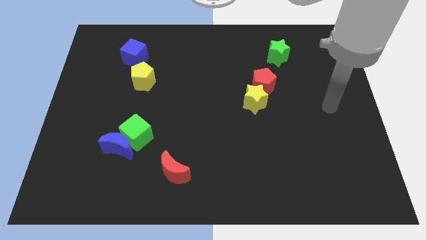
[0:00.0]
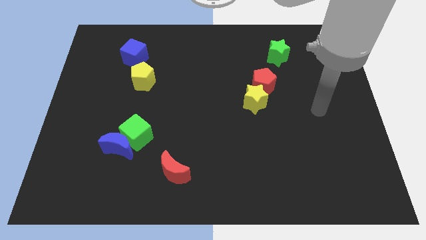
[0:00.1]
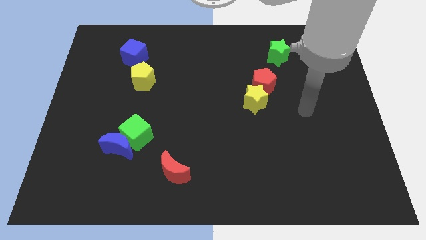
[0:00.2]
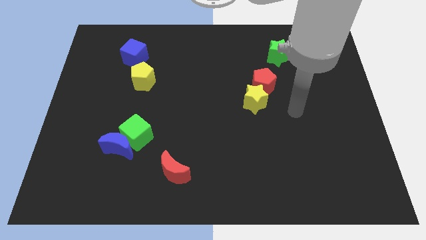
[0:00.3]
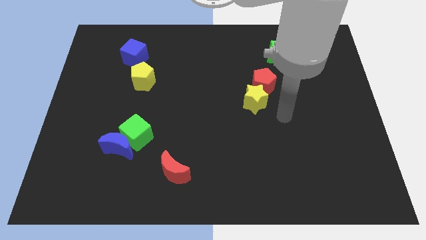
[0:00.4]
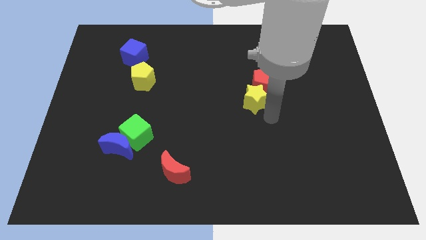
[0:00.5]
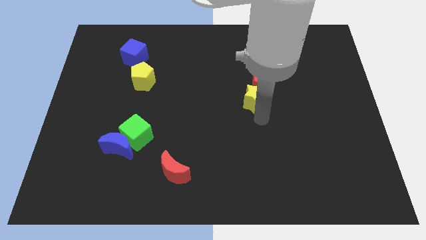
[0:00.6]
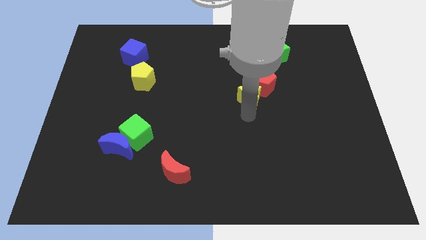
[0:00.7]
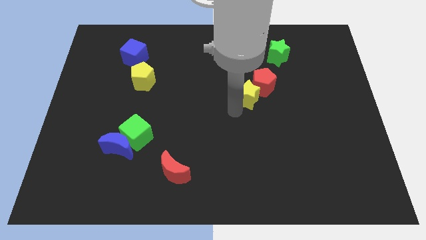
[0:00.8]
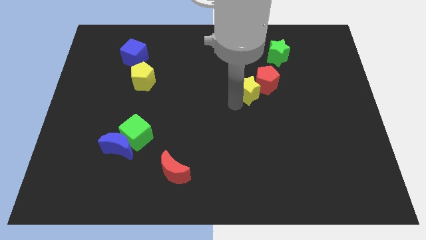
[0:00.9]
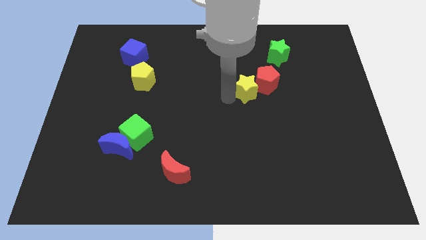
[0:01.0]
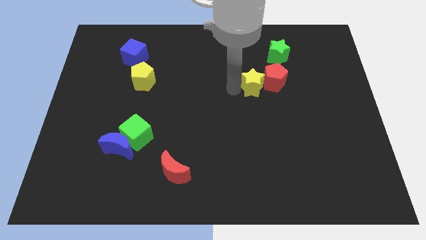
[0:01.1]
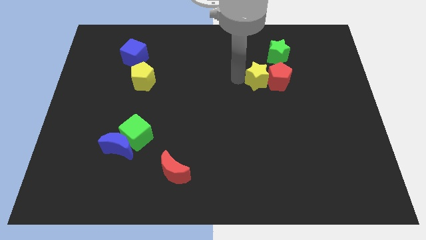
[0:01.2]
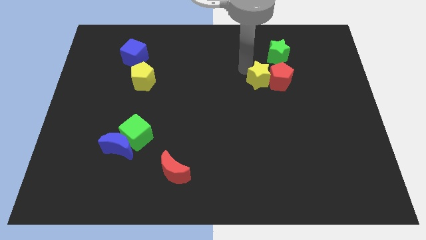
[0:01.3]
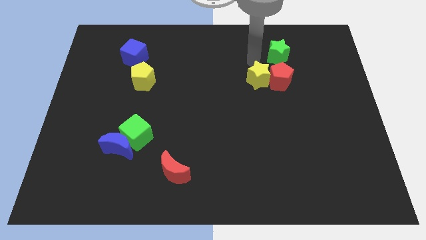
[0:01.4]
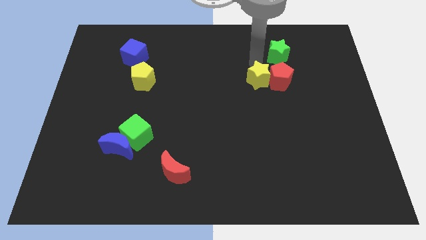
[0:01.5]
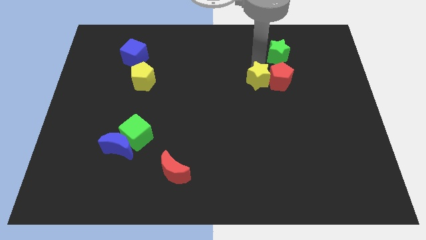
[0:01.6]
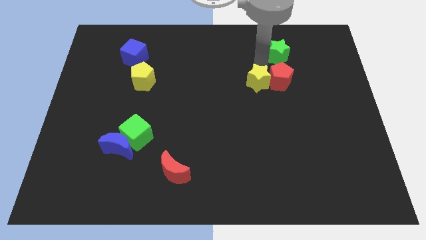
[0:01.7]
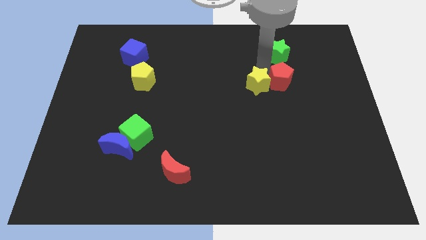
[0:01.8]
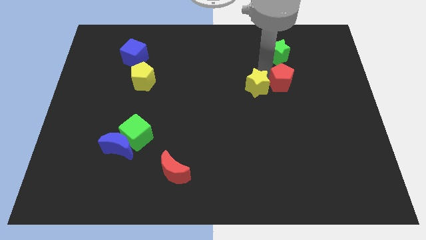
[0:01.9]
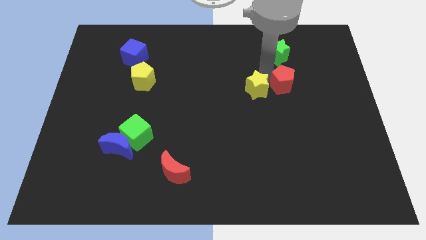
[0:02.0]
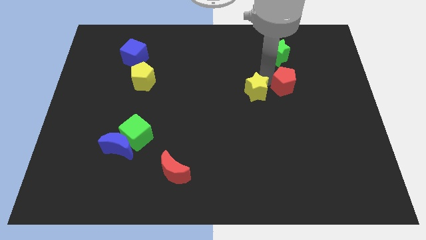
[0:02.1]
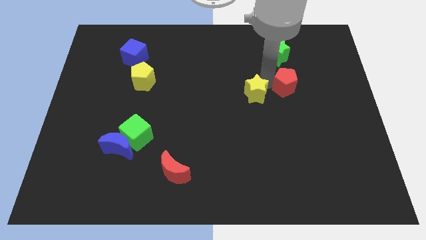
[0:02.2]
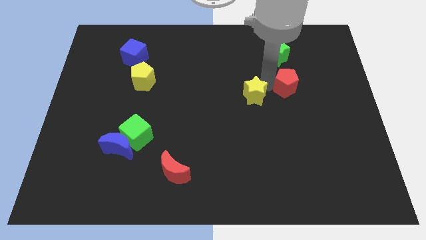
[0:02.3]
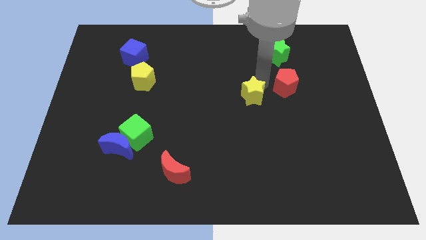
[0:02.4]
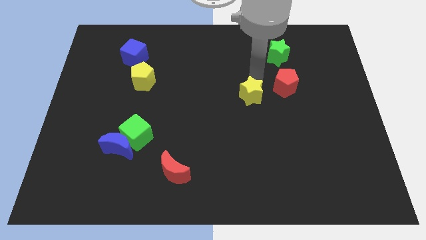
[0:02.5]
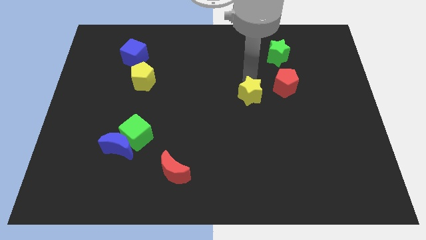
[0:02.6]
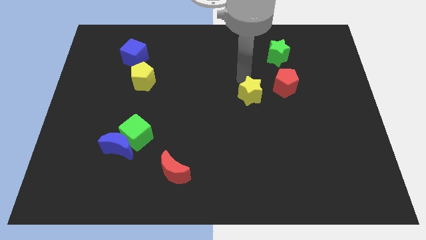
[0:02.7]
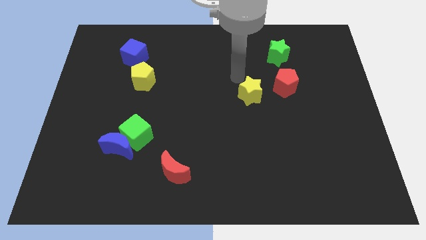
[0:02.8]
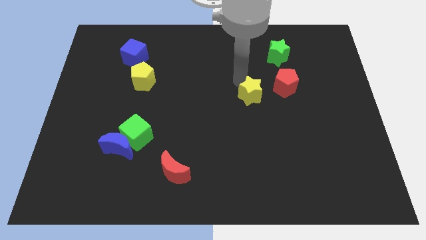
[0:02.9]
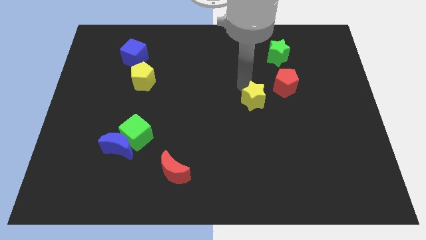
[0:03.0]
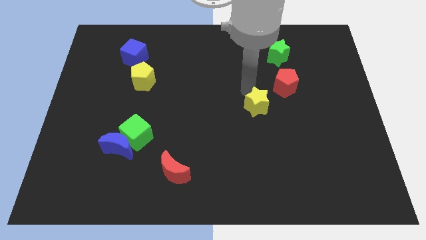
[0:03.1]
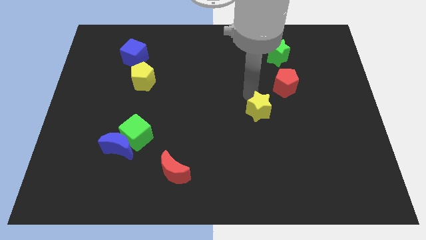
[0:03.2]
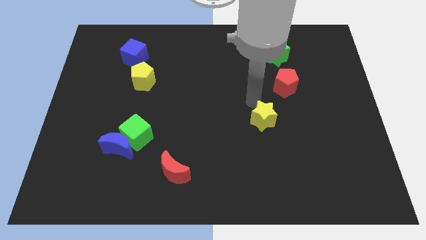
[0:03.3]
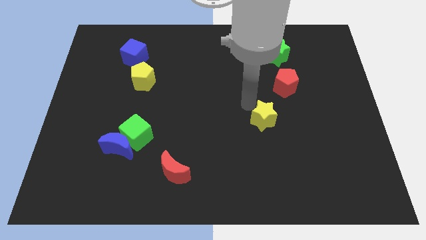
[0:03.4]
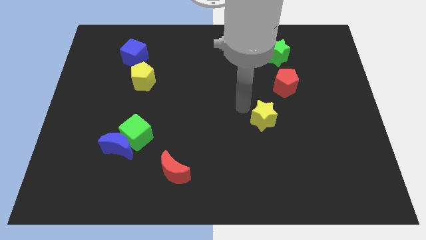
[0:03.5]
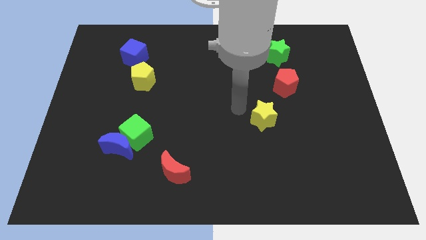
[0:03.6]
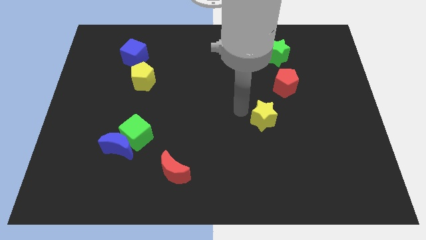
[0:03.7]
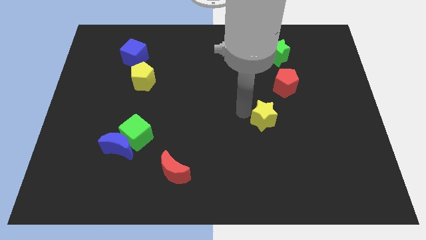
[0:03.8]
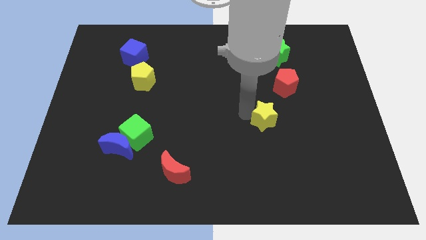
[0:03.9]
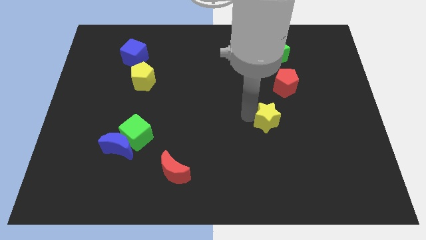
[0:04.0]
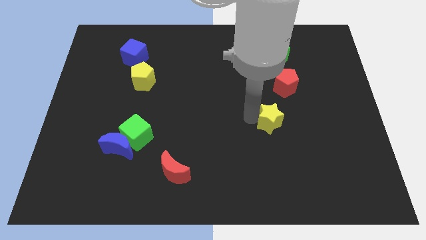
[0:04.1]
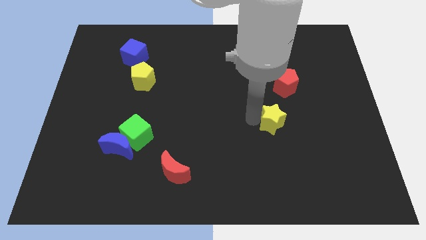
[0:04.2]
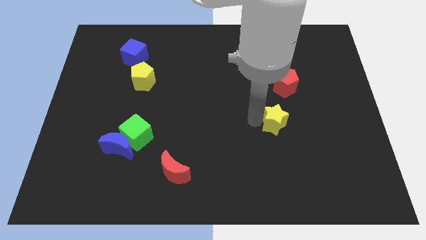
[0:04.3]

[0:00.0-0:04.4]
slide the yellow star downwards and then right a little bit

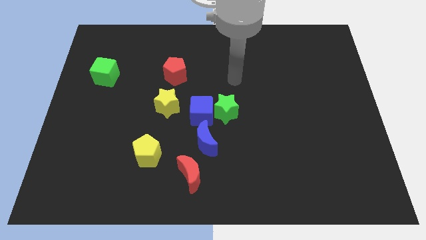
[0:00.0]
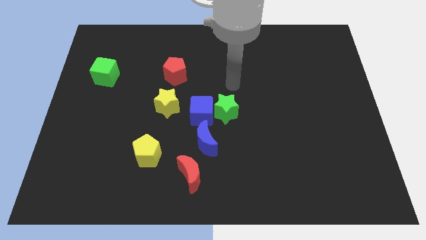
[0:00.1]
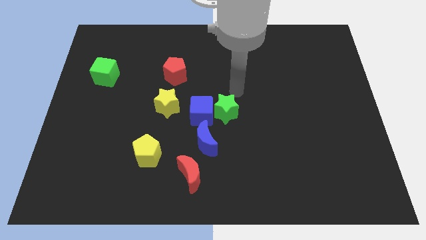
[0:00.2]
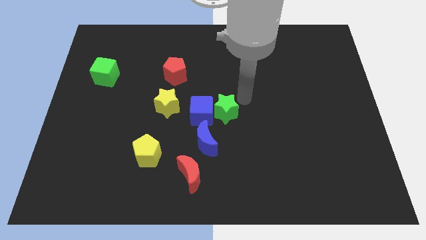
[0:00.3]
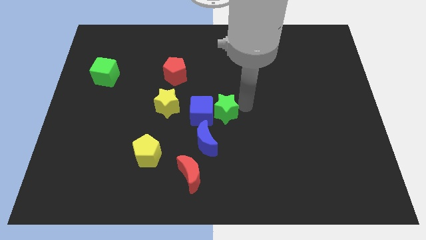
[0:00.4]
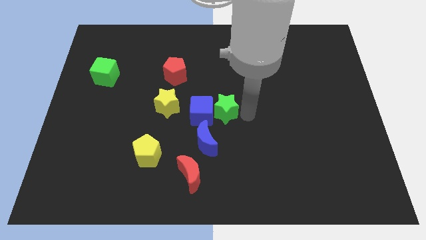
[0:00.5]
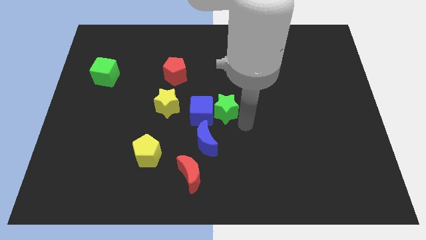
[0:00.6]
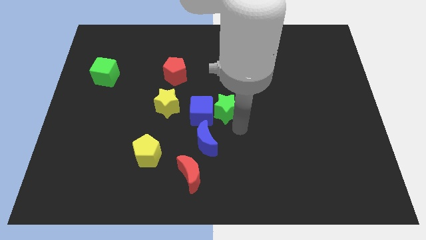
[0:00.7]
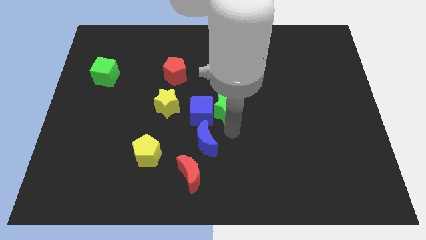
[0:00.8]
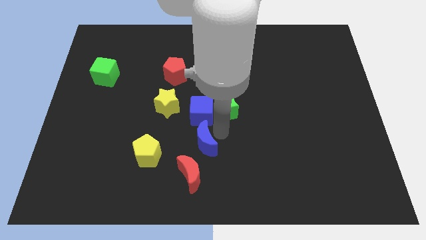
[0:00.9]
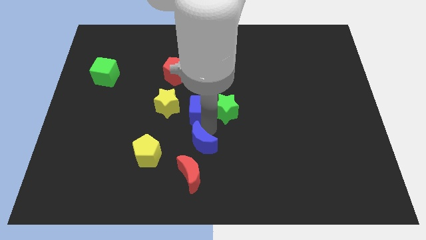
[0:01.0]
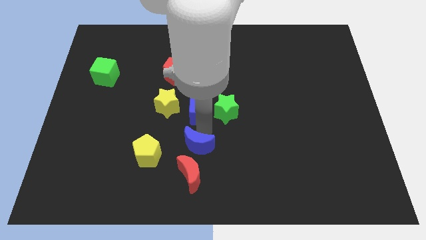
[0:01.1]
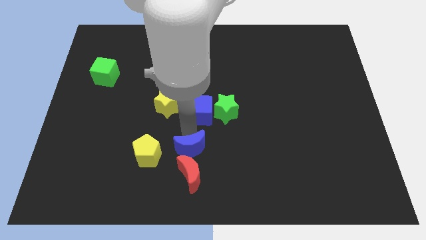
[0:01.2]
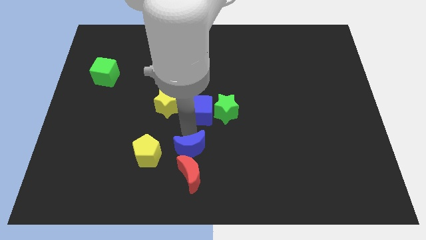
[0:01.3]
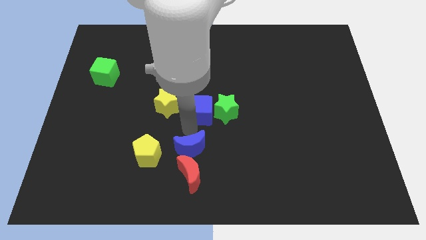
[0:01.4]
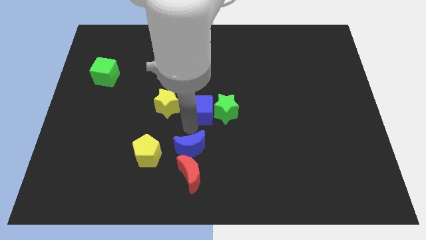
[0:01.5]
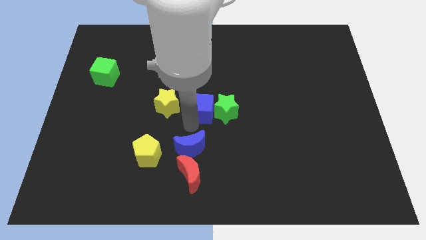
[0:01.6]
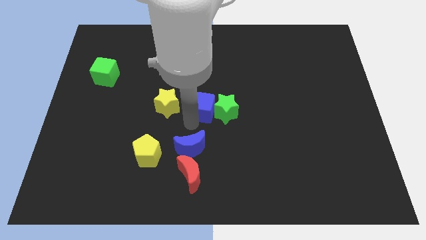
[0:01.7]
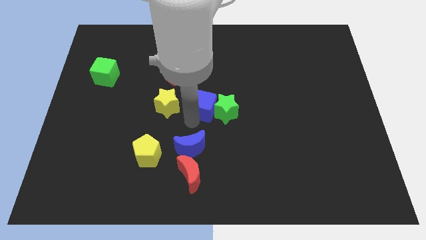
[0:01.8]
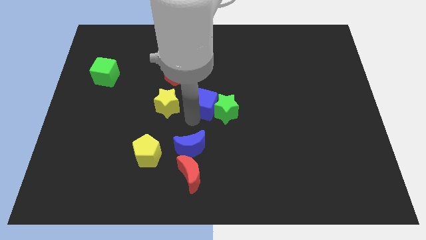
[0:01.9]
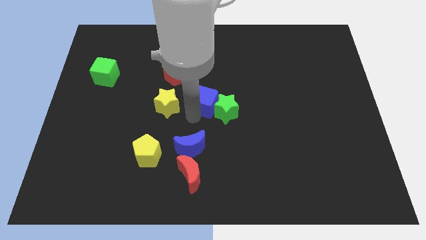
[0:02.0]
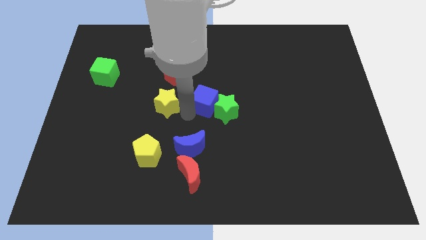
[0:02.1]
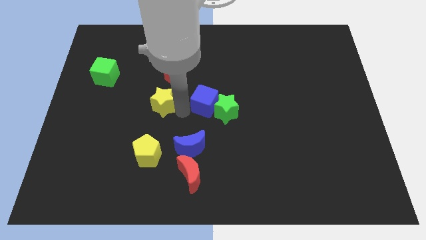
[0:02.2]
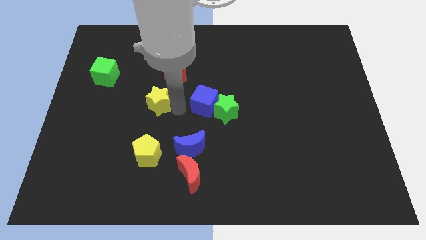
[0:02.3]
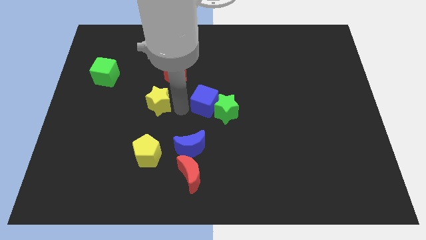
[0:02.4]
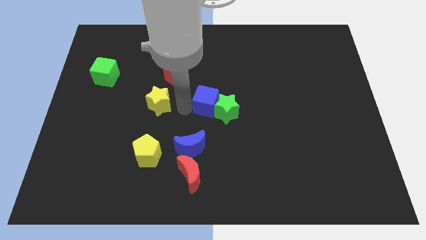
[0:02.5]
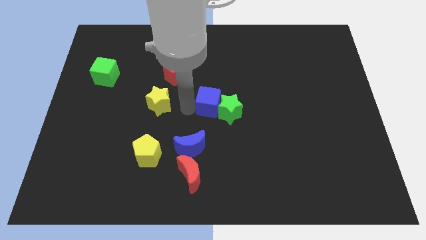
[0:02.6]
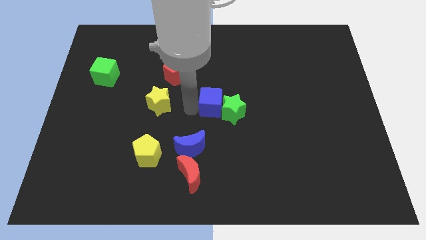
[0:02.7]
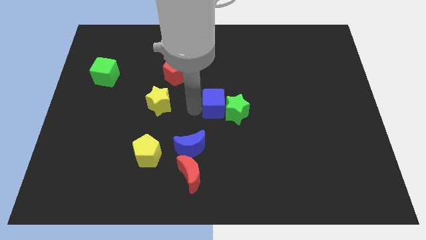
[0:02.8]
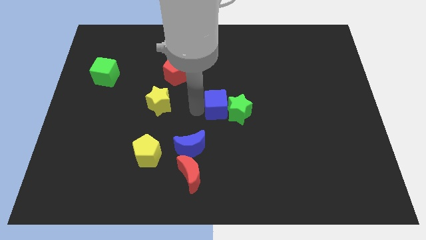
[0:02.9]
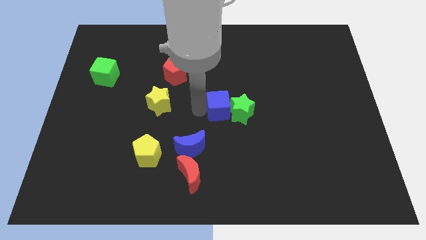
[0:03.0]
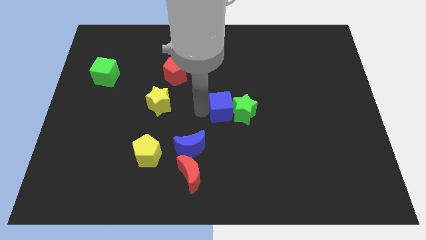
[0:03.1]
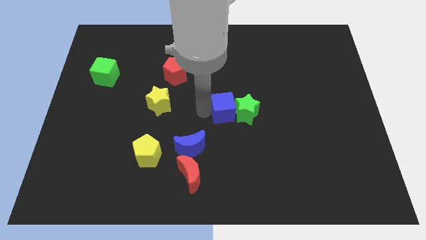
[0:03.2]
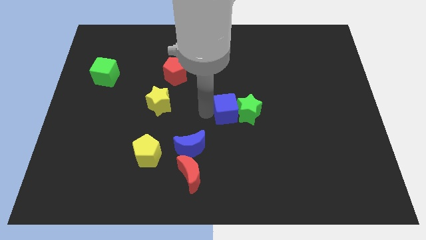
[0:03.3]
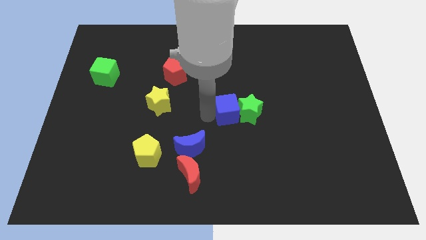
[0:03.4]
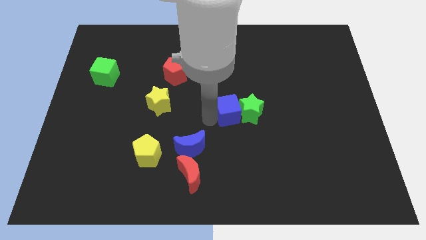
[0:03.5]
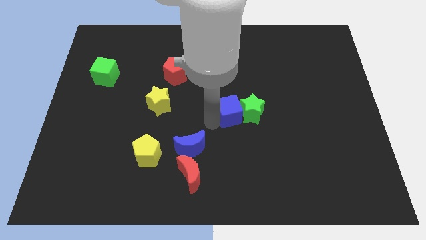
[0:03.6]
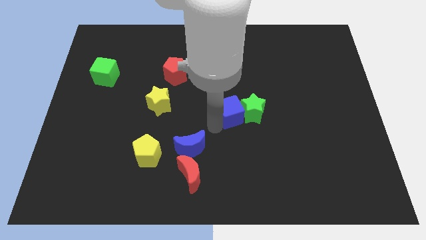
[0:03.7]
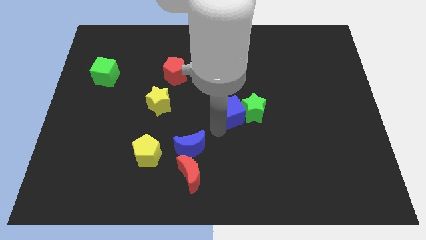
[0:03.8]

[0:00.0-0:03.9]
push the blue cube to the right a bit
